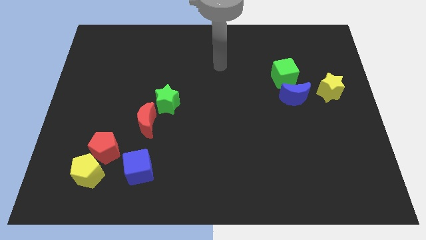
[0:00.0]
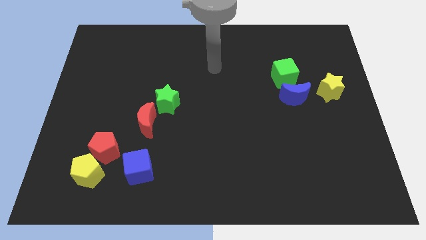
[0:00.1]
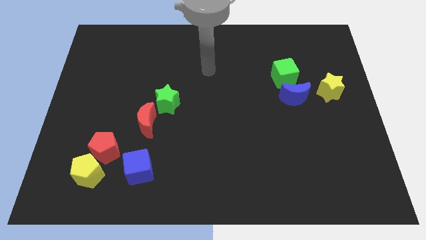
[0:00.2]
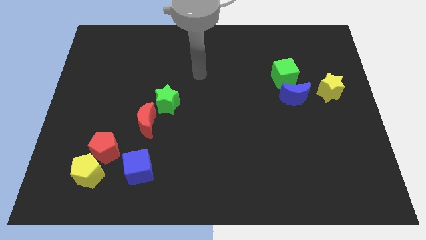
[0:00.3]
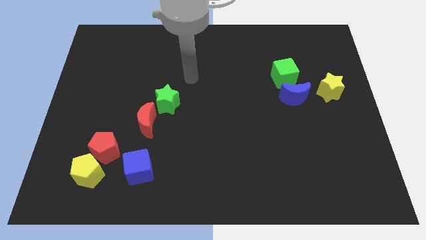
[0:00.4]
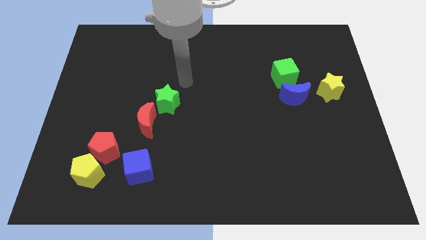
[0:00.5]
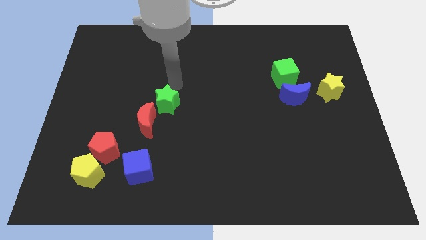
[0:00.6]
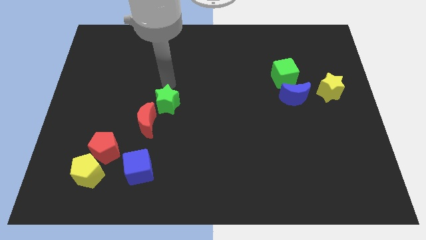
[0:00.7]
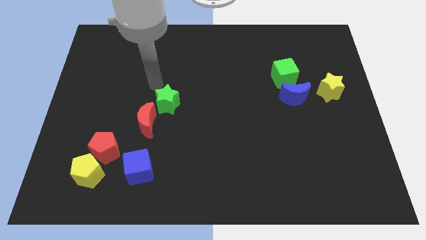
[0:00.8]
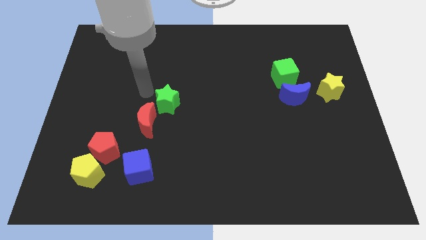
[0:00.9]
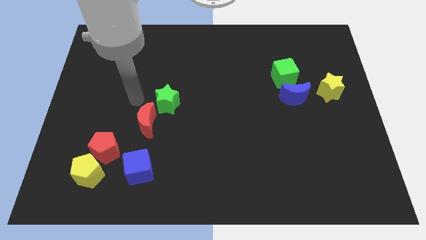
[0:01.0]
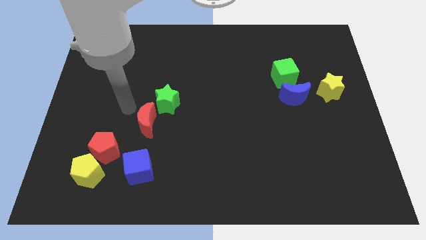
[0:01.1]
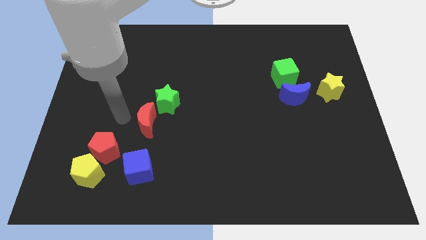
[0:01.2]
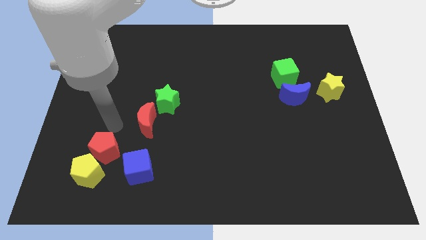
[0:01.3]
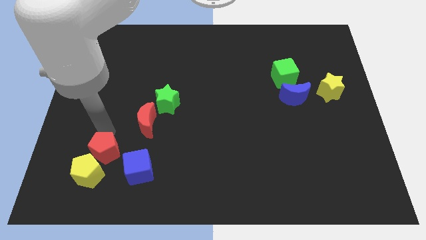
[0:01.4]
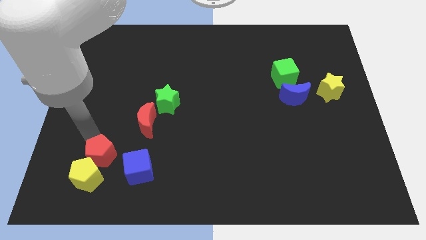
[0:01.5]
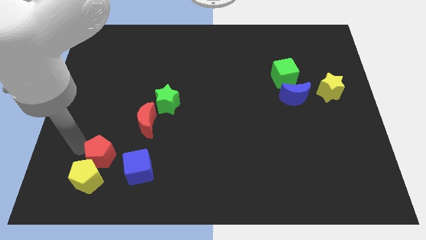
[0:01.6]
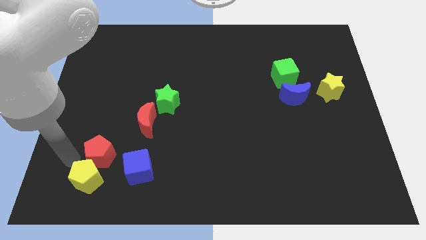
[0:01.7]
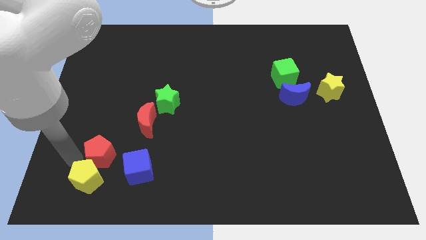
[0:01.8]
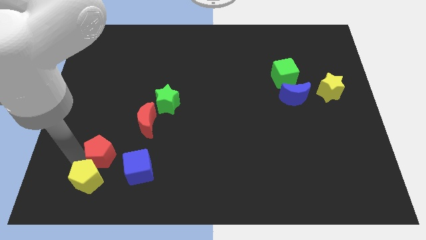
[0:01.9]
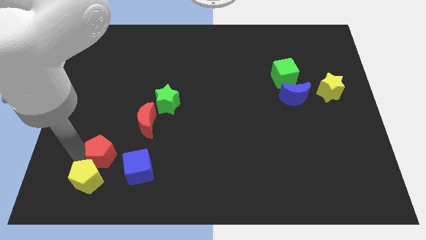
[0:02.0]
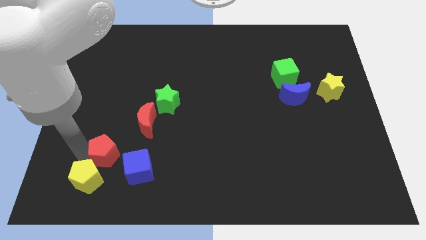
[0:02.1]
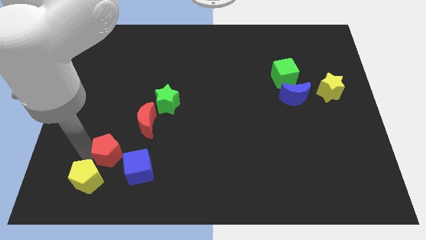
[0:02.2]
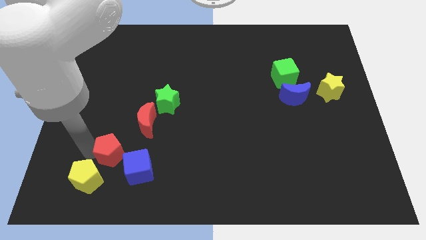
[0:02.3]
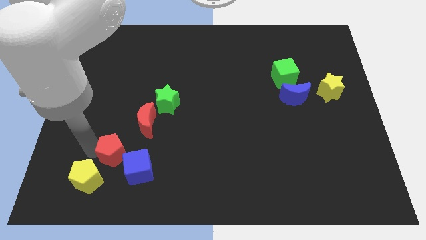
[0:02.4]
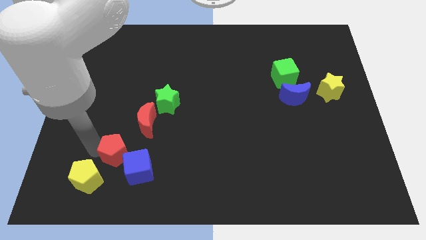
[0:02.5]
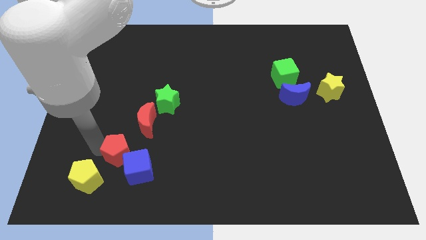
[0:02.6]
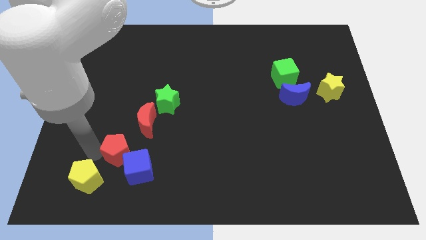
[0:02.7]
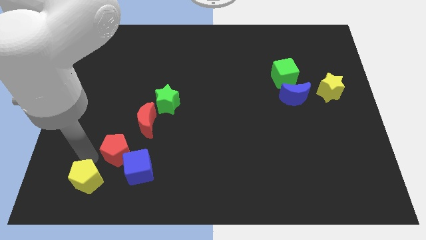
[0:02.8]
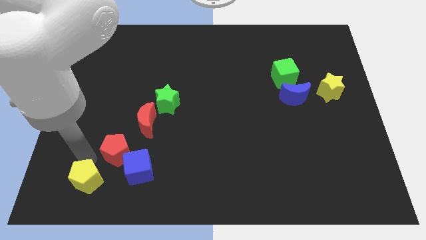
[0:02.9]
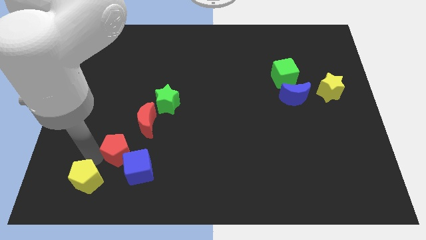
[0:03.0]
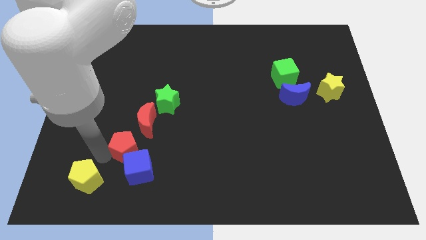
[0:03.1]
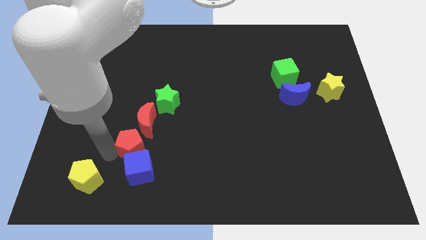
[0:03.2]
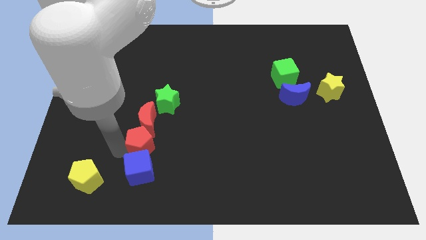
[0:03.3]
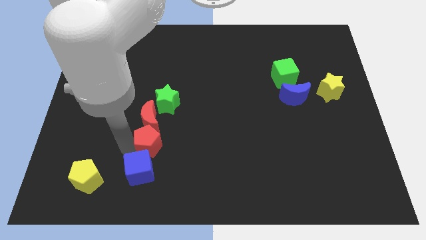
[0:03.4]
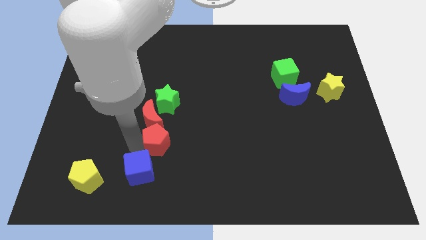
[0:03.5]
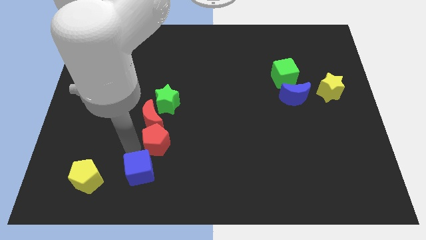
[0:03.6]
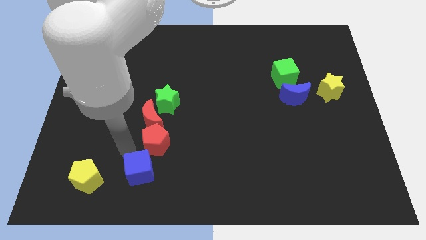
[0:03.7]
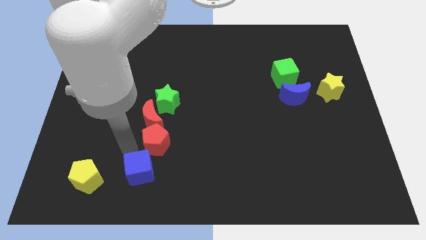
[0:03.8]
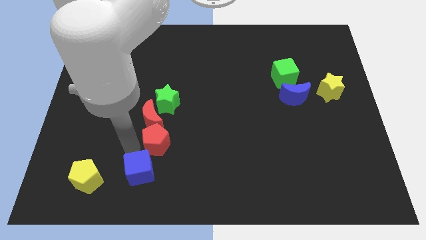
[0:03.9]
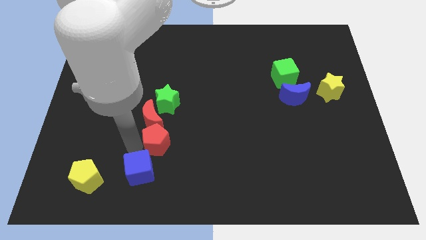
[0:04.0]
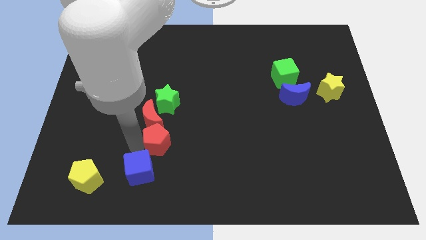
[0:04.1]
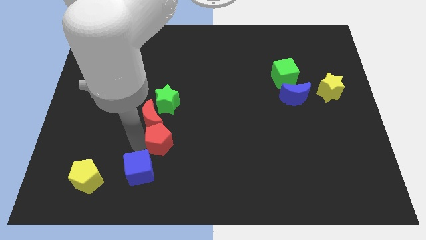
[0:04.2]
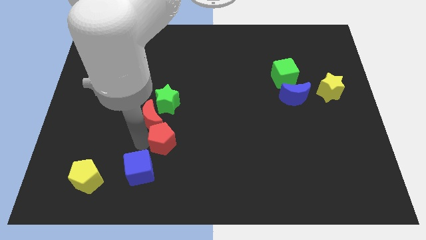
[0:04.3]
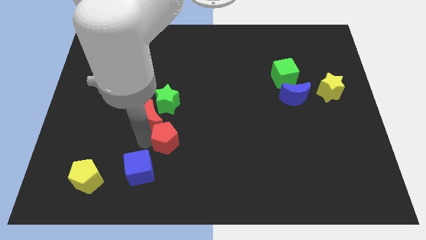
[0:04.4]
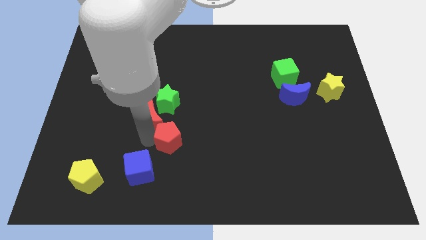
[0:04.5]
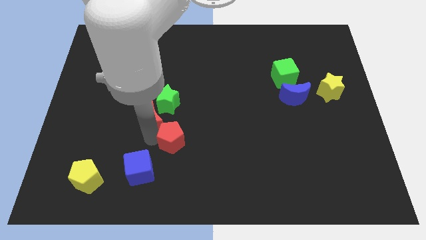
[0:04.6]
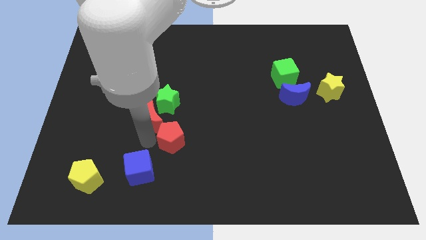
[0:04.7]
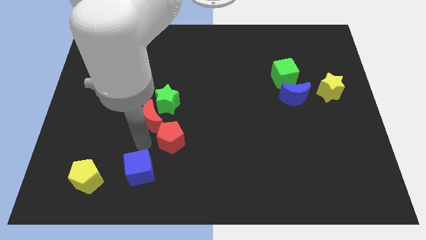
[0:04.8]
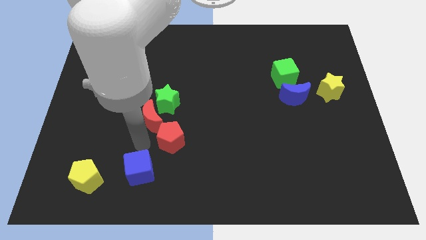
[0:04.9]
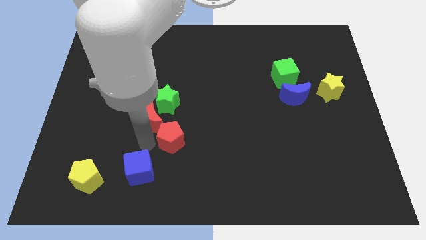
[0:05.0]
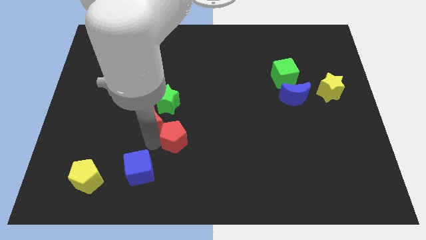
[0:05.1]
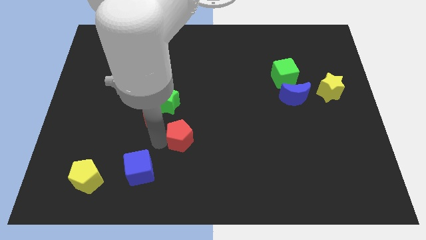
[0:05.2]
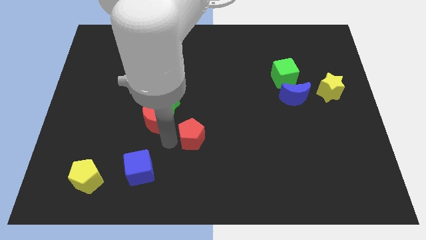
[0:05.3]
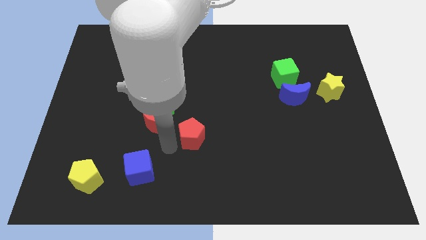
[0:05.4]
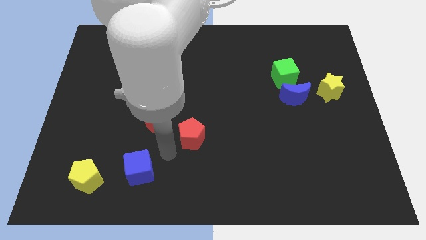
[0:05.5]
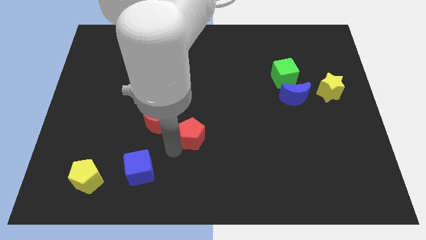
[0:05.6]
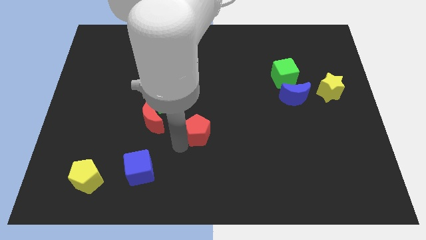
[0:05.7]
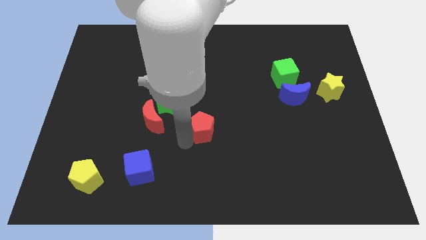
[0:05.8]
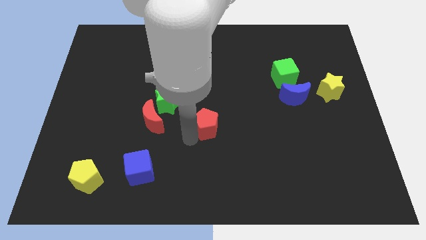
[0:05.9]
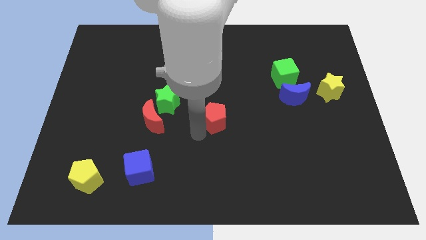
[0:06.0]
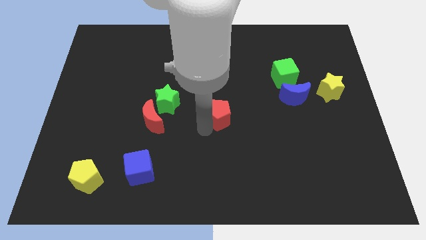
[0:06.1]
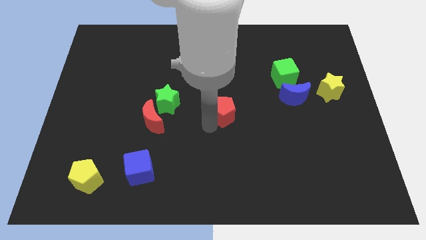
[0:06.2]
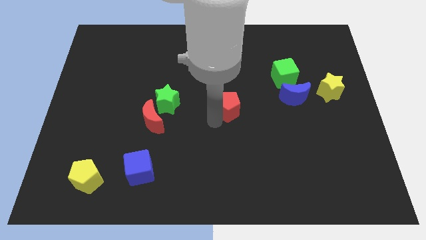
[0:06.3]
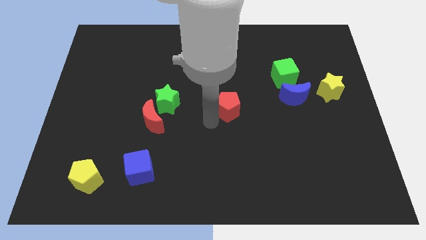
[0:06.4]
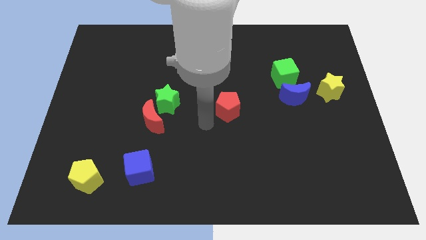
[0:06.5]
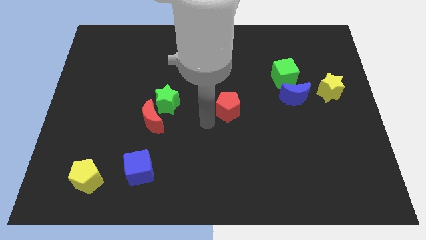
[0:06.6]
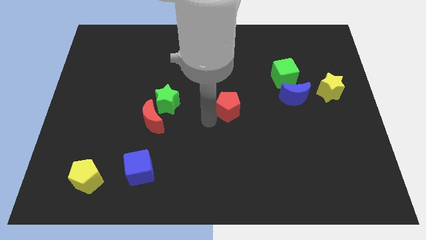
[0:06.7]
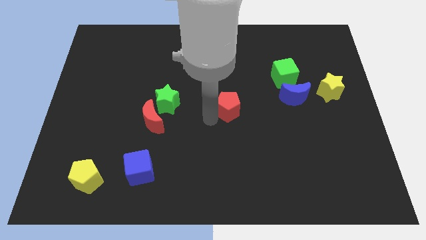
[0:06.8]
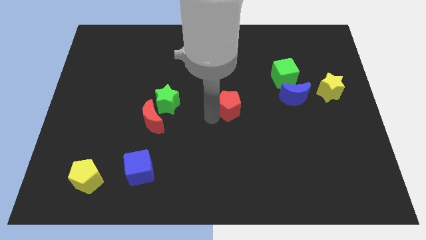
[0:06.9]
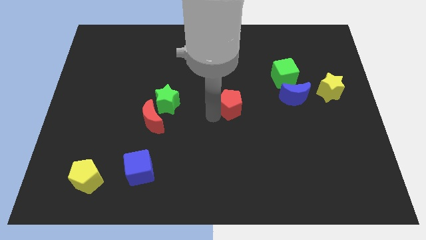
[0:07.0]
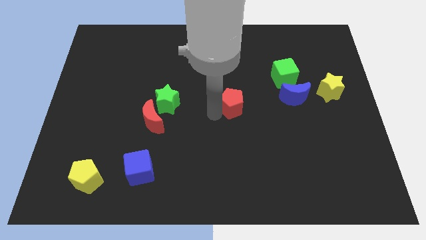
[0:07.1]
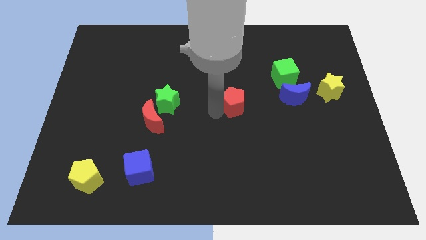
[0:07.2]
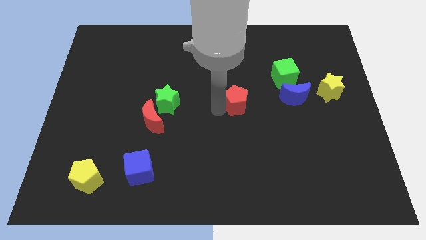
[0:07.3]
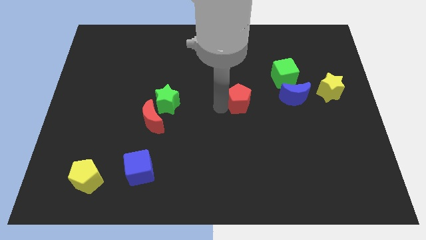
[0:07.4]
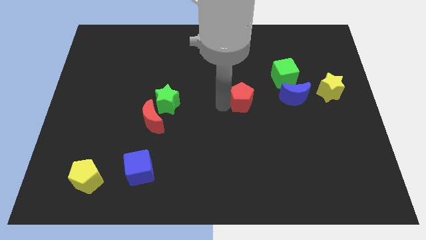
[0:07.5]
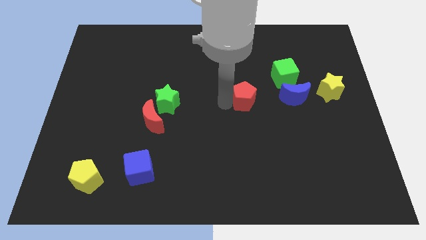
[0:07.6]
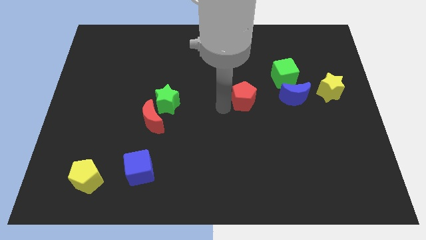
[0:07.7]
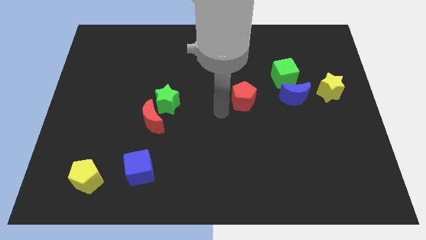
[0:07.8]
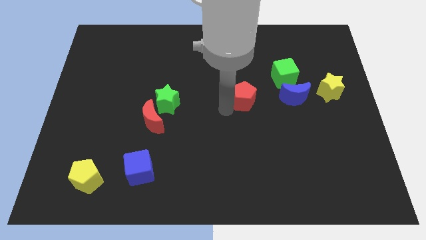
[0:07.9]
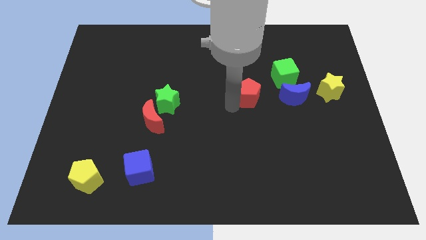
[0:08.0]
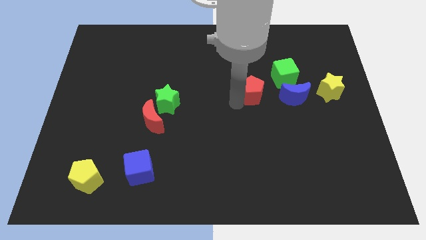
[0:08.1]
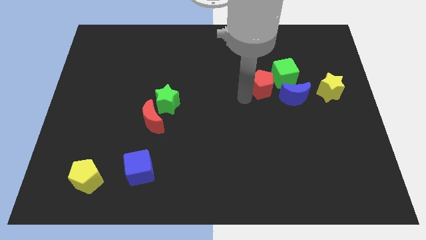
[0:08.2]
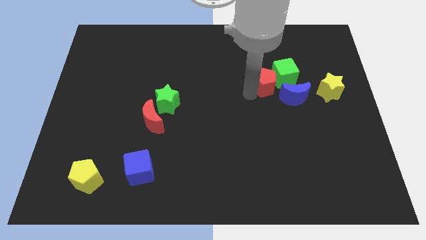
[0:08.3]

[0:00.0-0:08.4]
slide the red pentagon close to the green cube

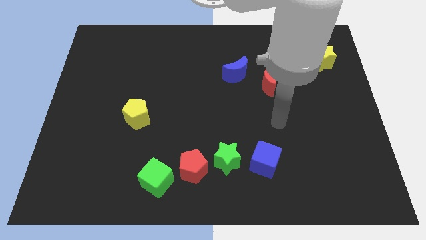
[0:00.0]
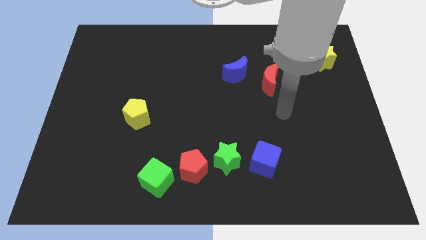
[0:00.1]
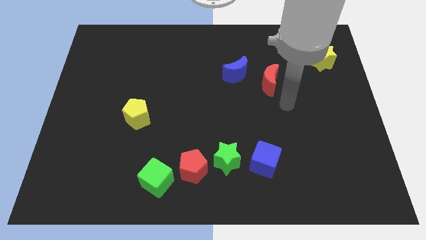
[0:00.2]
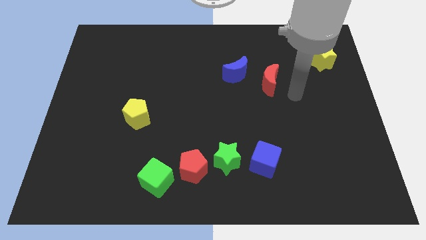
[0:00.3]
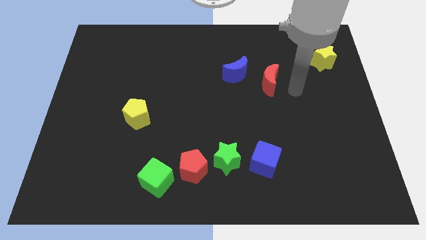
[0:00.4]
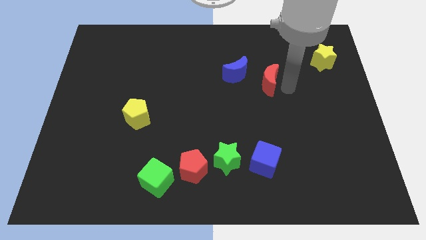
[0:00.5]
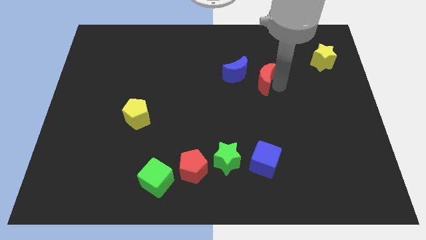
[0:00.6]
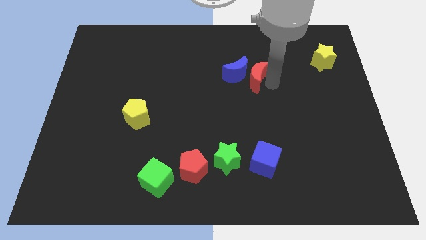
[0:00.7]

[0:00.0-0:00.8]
push the red moon to the blue moon
